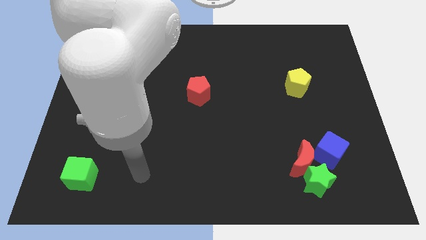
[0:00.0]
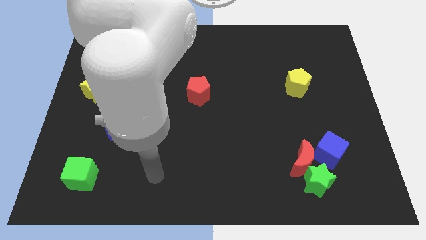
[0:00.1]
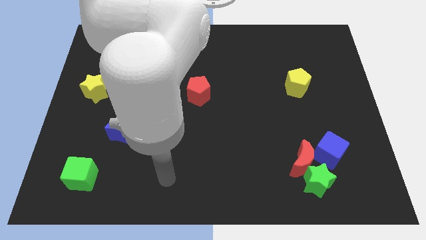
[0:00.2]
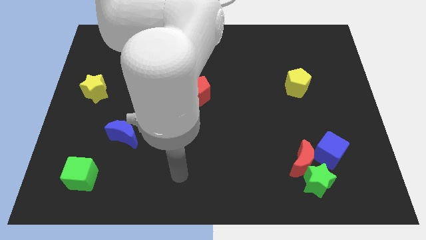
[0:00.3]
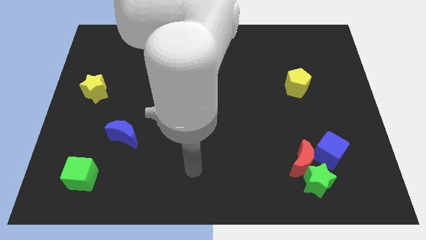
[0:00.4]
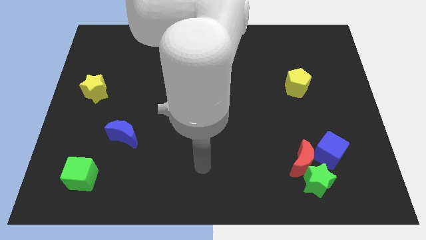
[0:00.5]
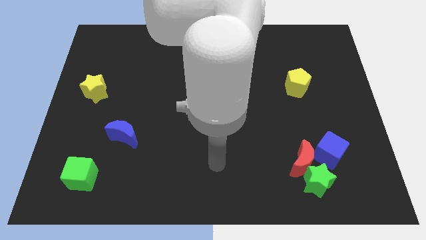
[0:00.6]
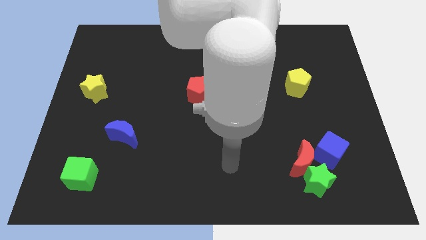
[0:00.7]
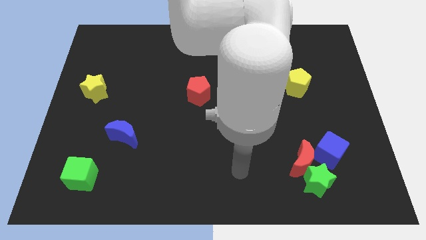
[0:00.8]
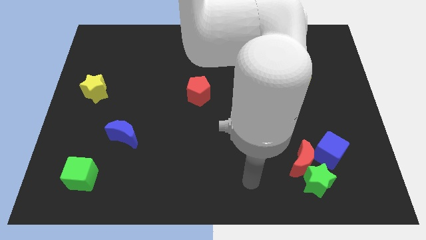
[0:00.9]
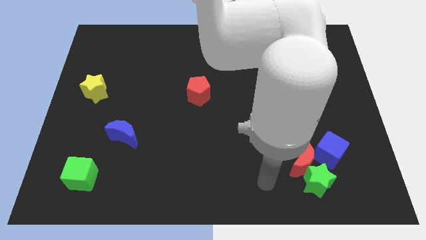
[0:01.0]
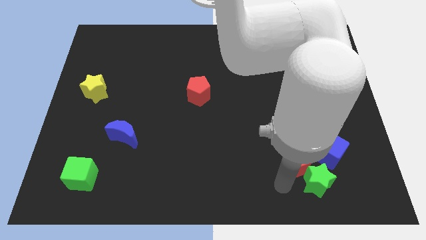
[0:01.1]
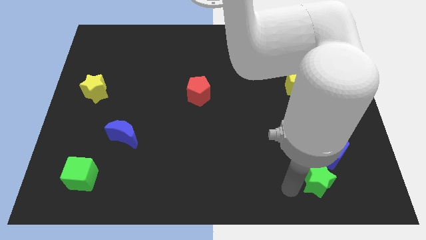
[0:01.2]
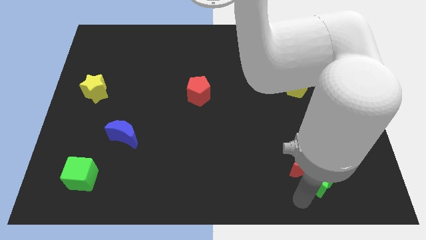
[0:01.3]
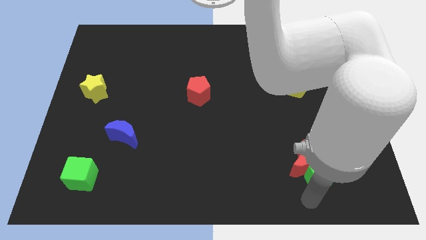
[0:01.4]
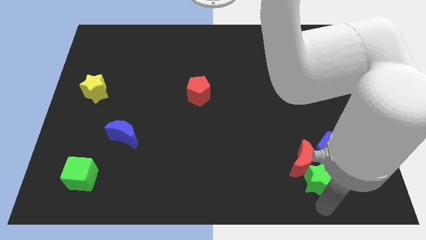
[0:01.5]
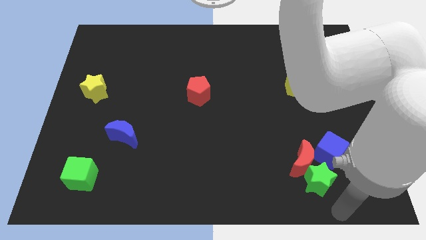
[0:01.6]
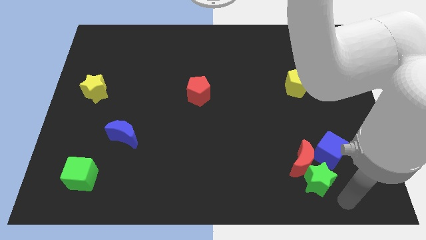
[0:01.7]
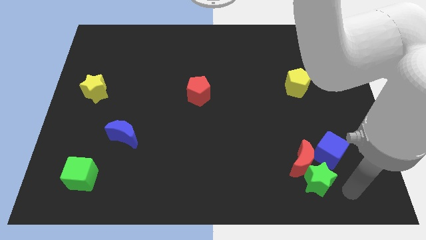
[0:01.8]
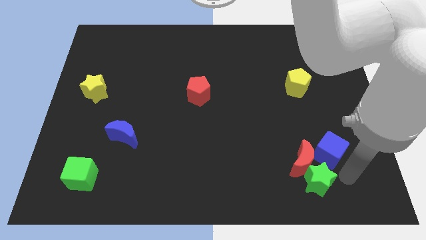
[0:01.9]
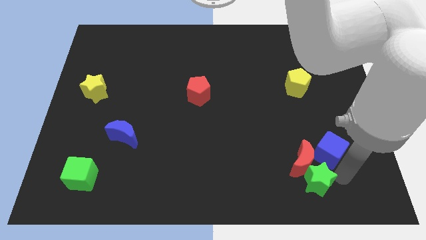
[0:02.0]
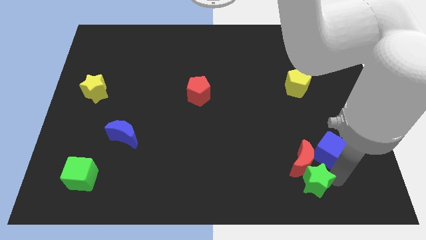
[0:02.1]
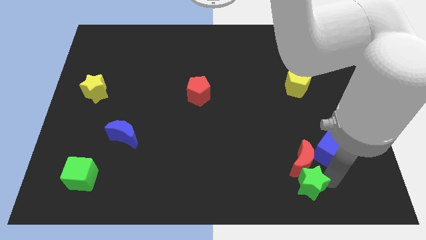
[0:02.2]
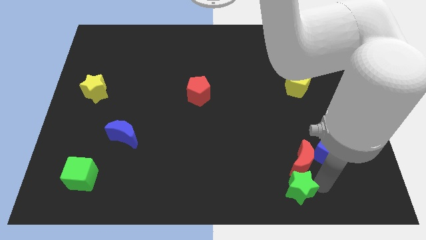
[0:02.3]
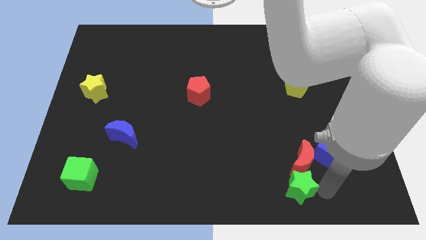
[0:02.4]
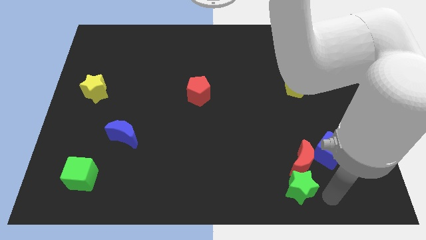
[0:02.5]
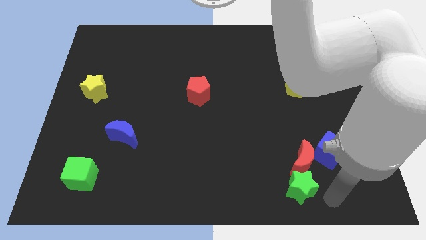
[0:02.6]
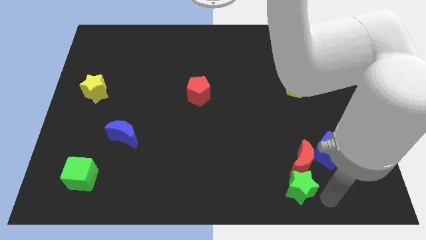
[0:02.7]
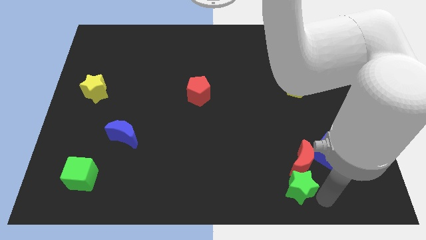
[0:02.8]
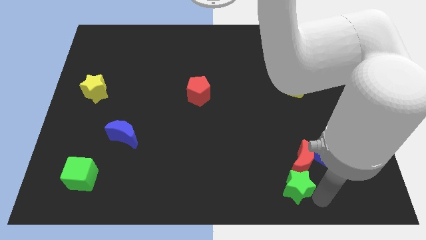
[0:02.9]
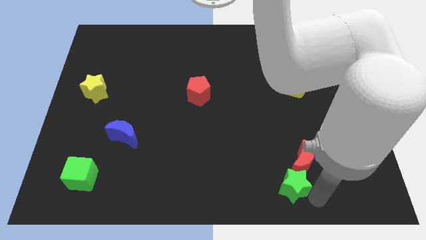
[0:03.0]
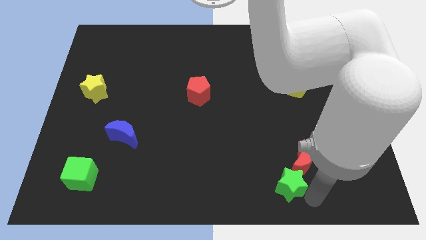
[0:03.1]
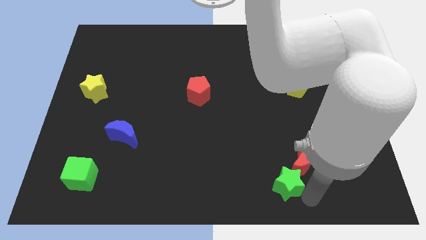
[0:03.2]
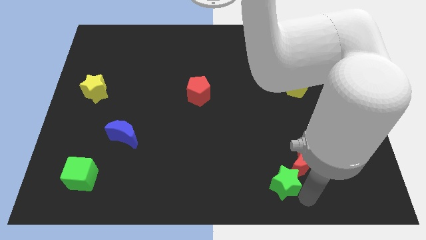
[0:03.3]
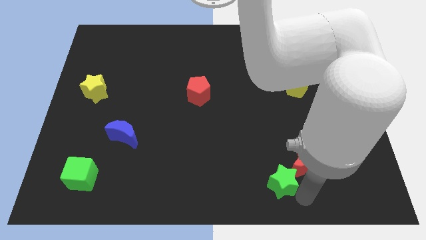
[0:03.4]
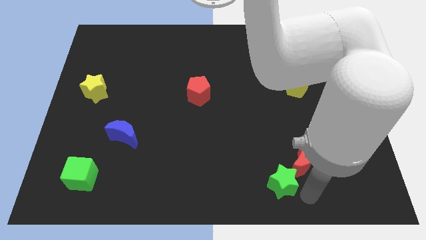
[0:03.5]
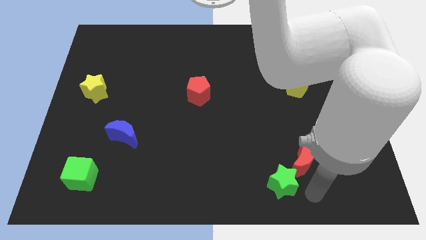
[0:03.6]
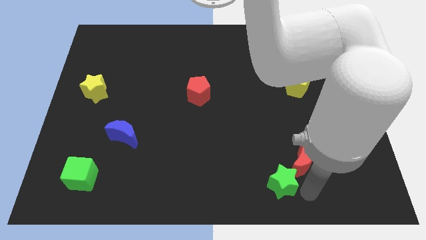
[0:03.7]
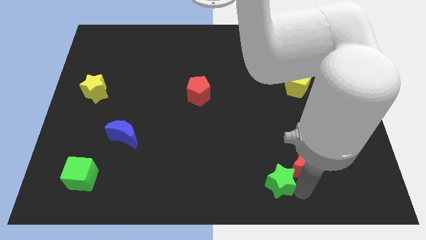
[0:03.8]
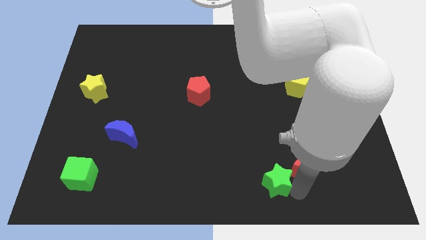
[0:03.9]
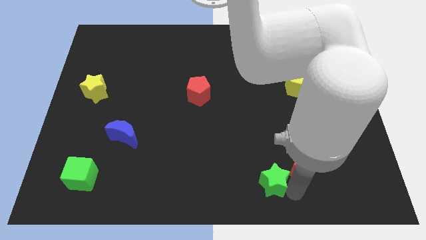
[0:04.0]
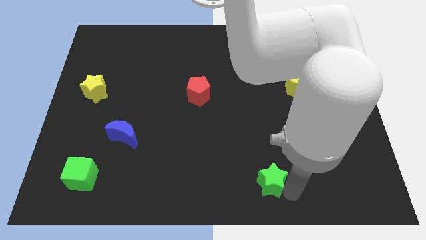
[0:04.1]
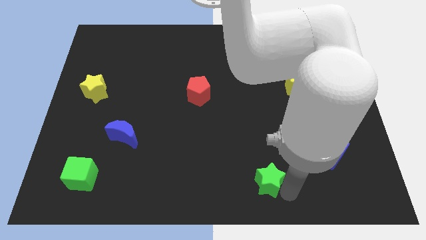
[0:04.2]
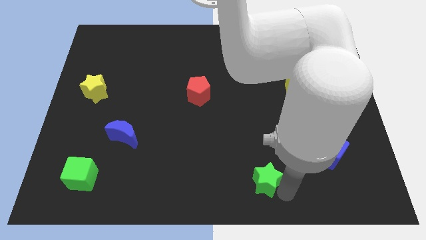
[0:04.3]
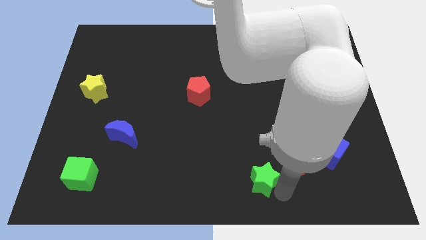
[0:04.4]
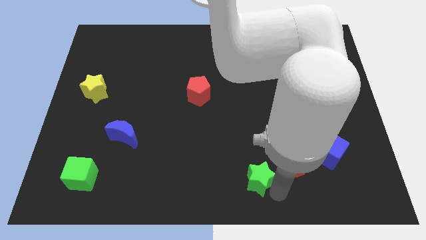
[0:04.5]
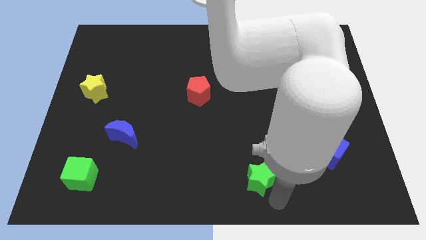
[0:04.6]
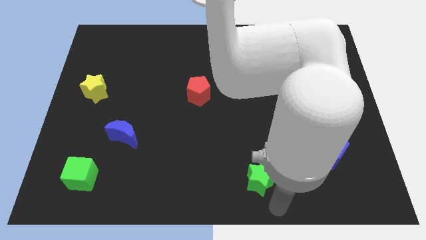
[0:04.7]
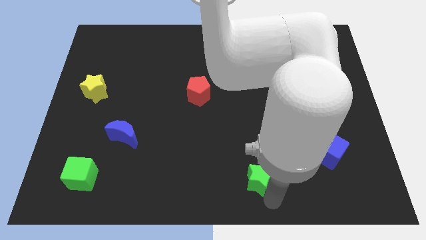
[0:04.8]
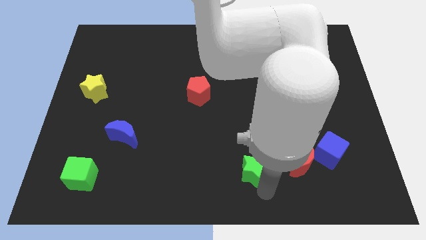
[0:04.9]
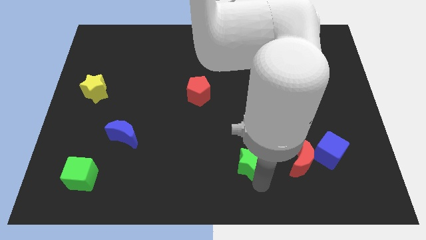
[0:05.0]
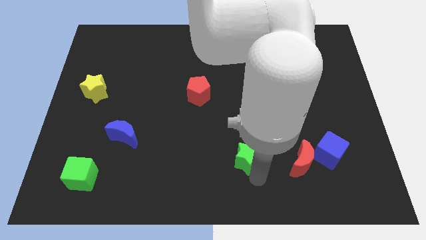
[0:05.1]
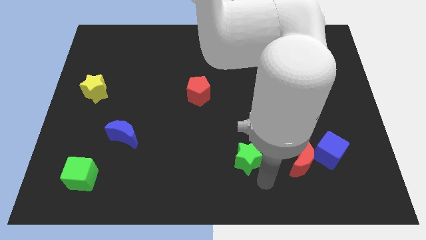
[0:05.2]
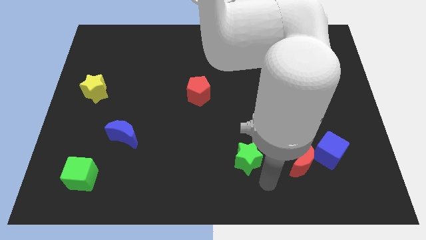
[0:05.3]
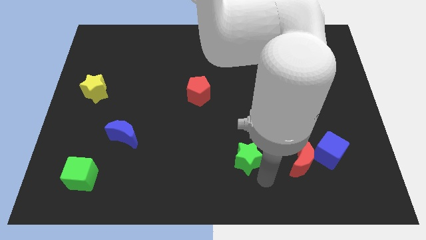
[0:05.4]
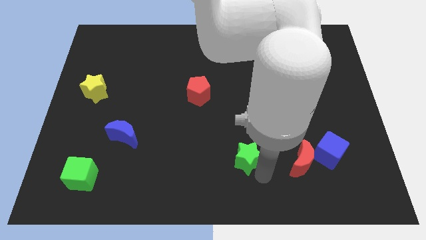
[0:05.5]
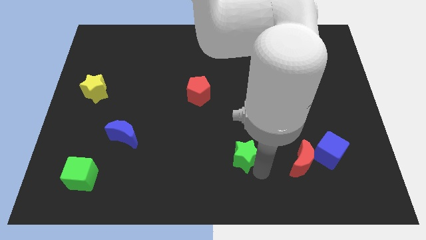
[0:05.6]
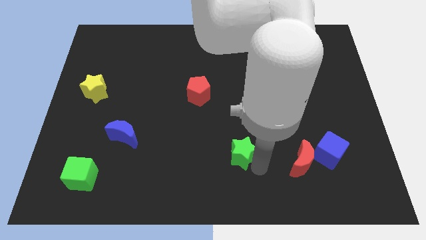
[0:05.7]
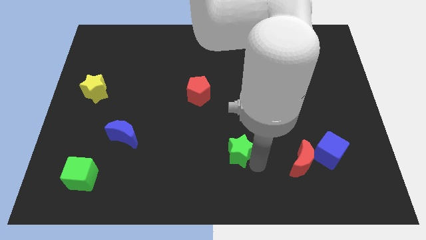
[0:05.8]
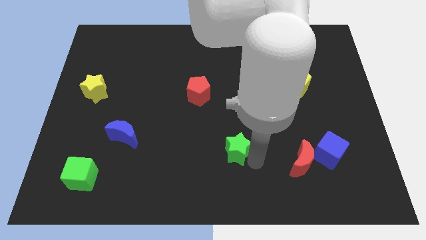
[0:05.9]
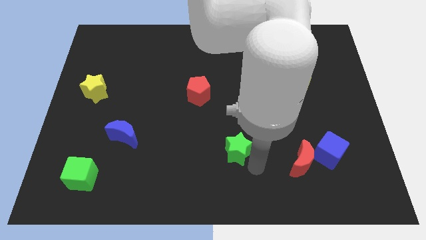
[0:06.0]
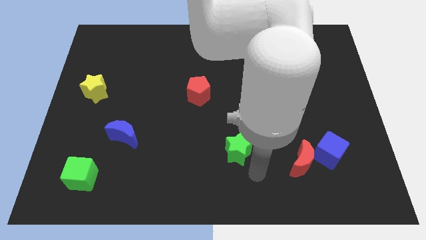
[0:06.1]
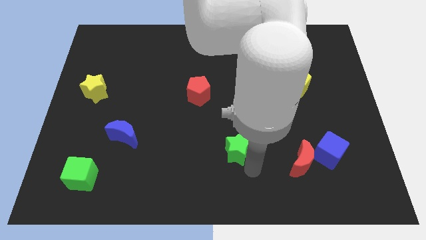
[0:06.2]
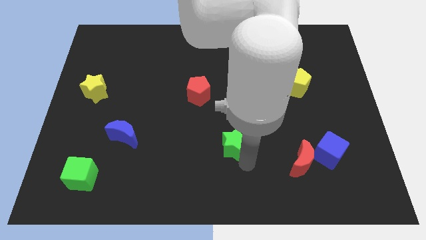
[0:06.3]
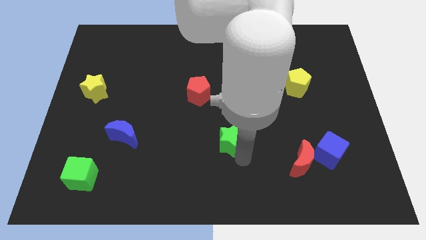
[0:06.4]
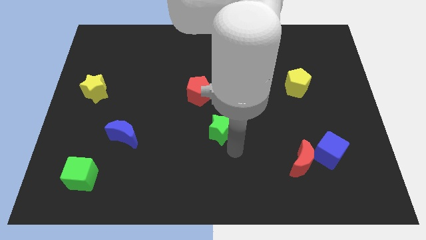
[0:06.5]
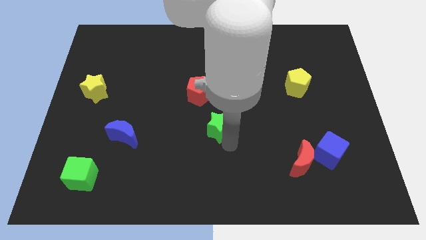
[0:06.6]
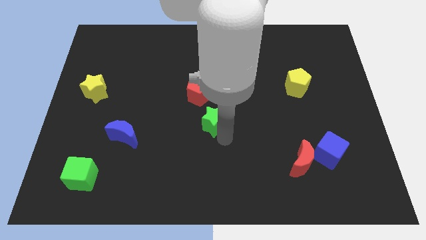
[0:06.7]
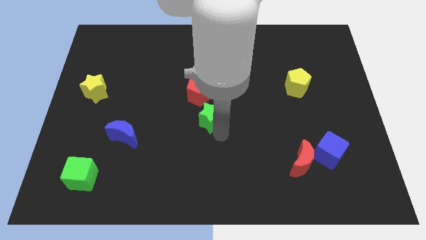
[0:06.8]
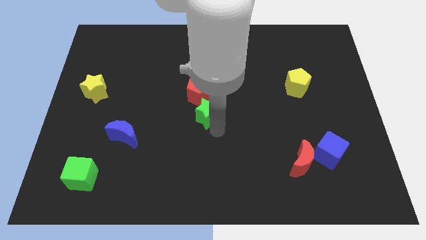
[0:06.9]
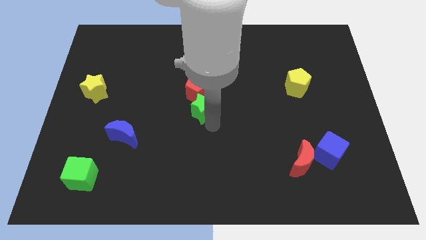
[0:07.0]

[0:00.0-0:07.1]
put the green star to the red pentagon
